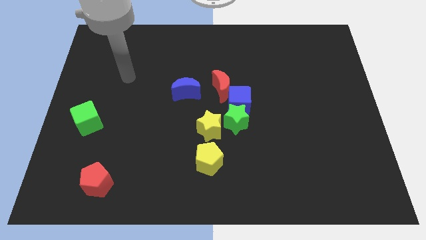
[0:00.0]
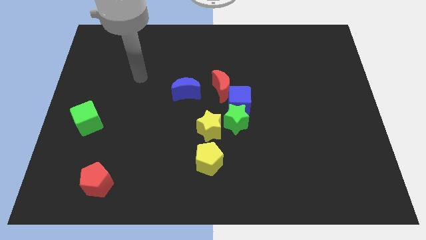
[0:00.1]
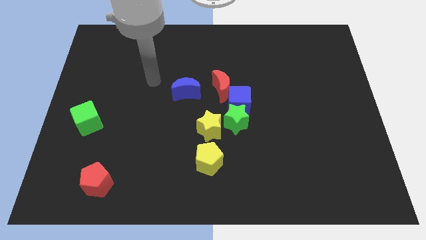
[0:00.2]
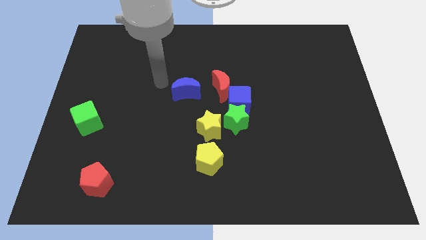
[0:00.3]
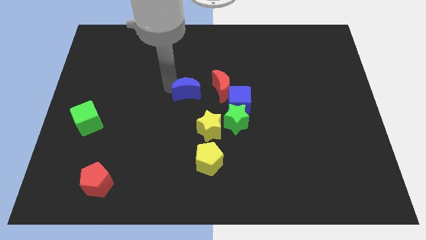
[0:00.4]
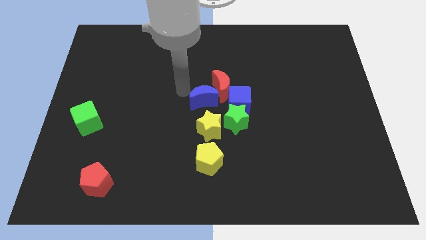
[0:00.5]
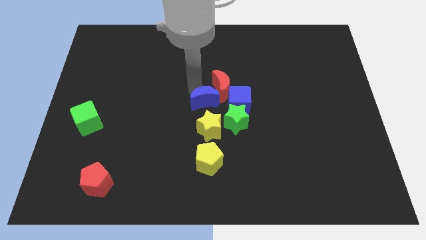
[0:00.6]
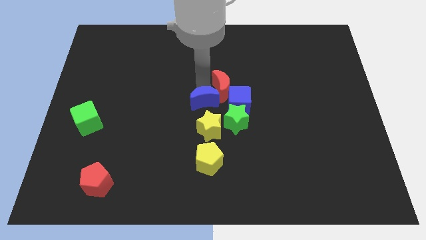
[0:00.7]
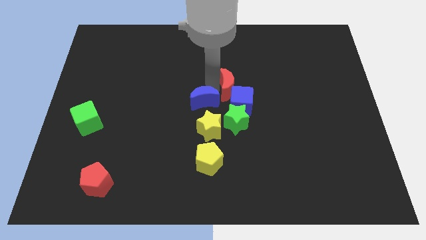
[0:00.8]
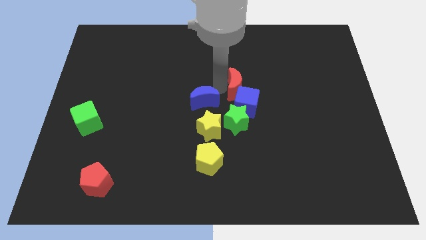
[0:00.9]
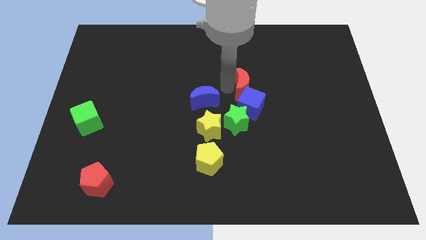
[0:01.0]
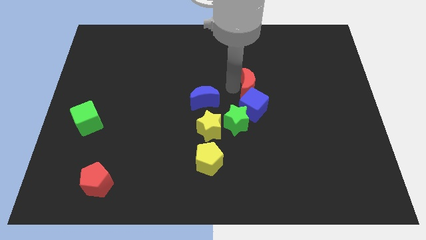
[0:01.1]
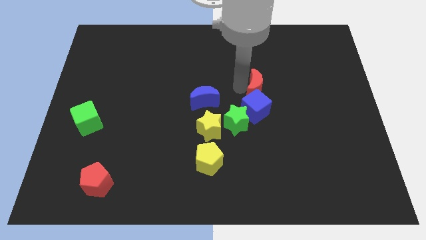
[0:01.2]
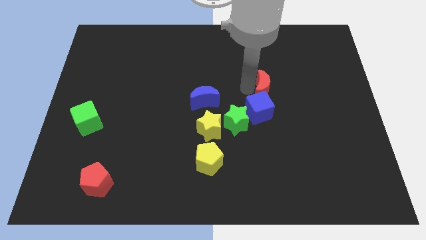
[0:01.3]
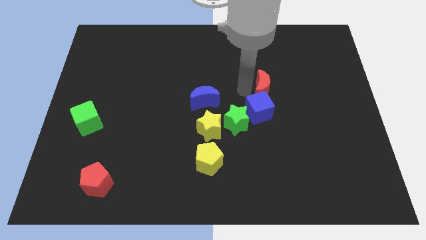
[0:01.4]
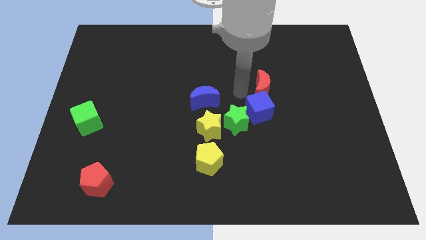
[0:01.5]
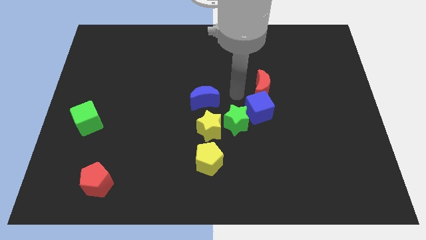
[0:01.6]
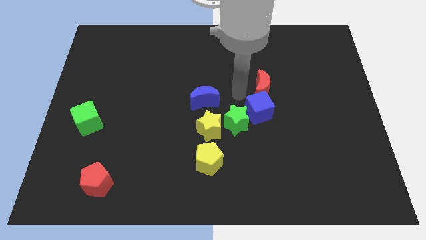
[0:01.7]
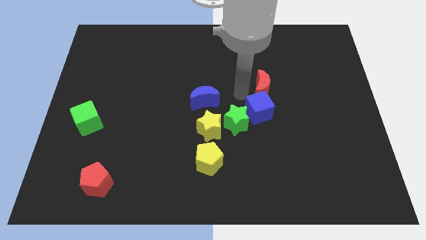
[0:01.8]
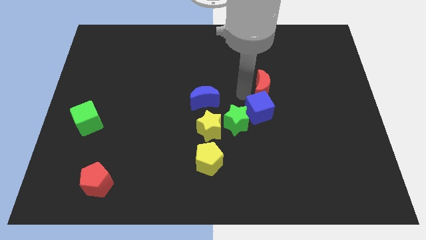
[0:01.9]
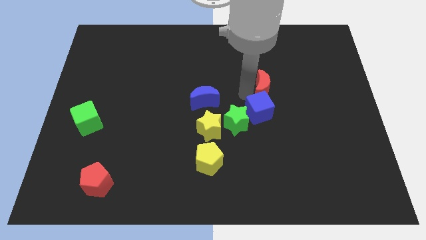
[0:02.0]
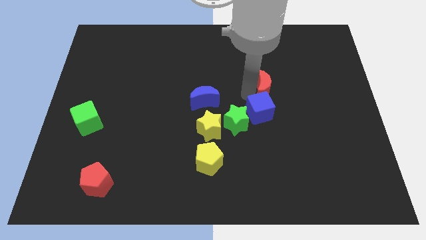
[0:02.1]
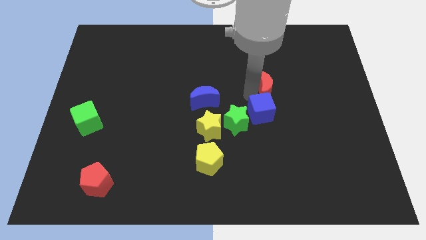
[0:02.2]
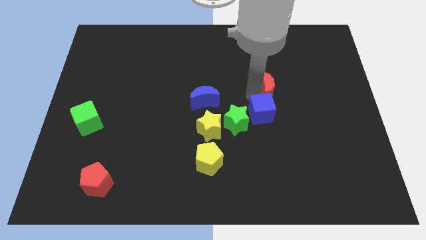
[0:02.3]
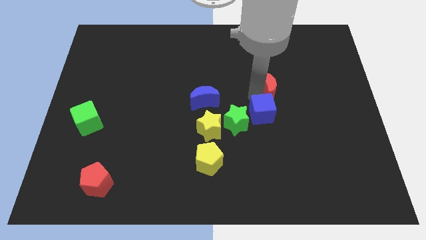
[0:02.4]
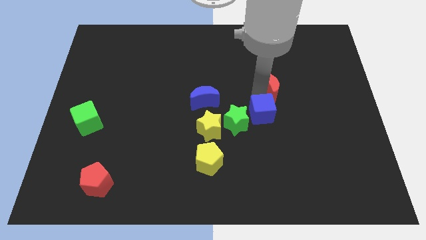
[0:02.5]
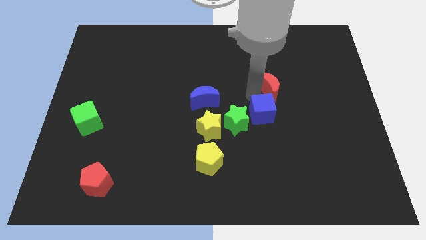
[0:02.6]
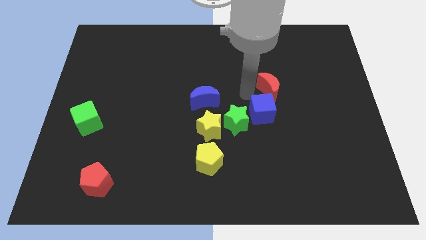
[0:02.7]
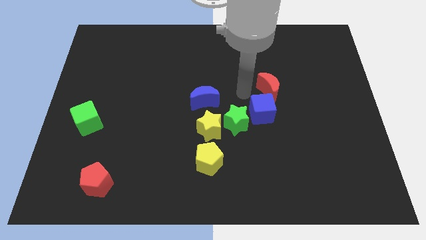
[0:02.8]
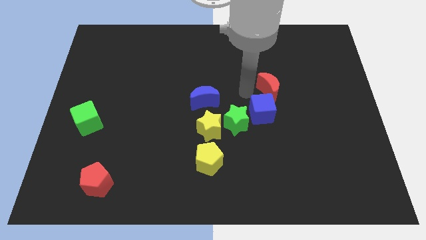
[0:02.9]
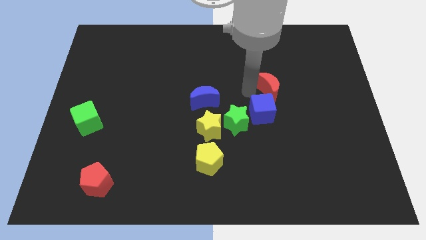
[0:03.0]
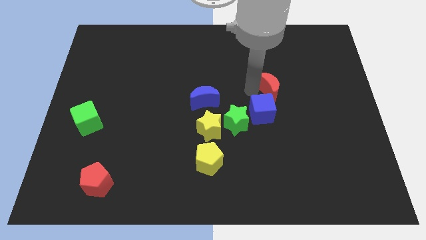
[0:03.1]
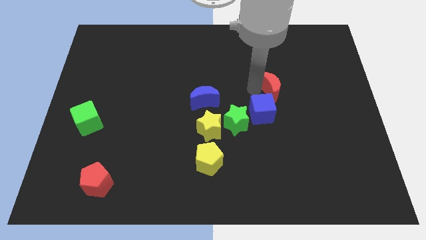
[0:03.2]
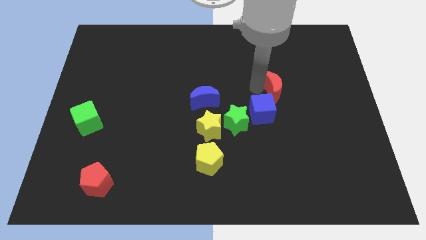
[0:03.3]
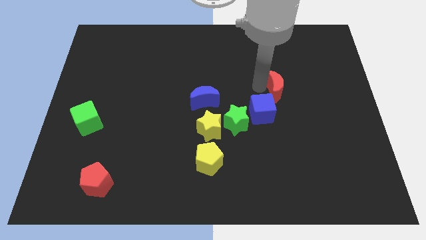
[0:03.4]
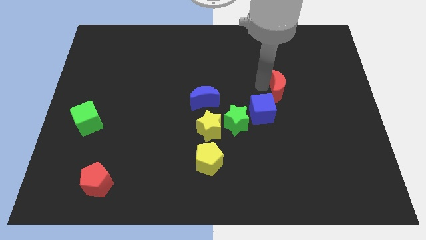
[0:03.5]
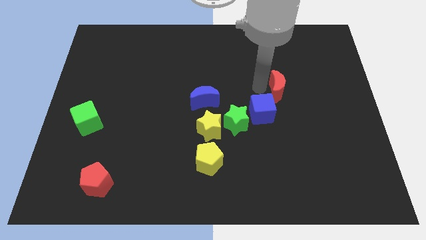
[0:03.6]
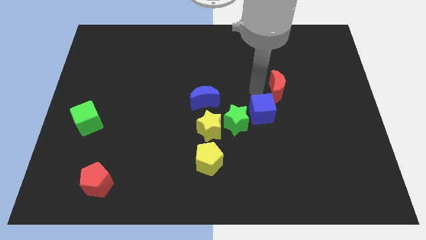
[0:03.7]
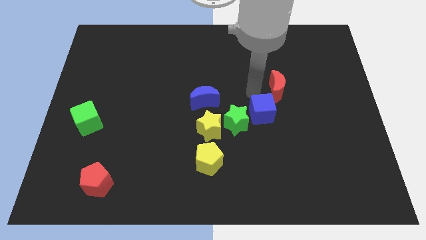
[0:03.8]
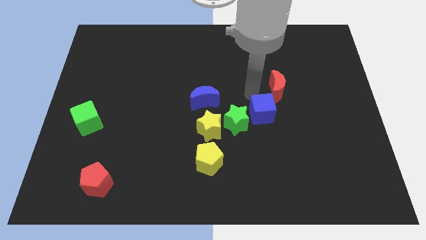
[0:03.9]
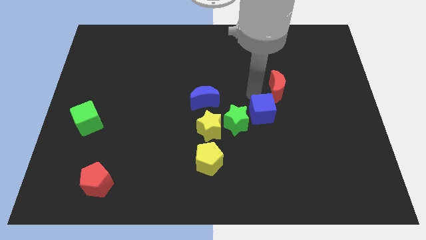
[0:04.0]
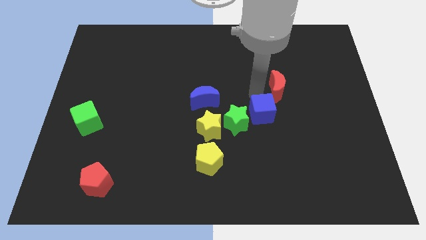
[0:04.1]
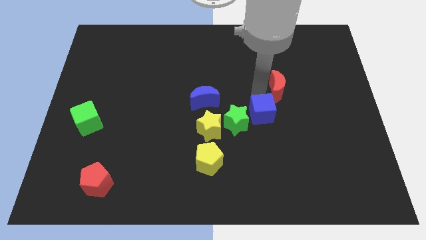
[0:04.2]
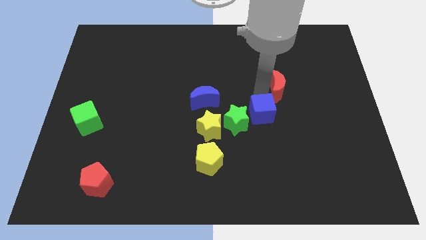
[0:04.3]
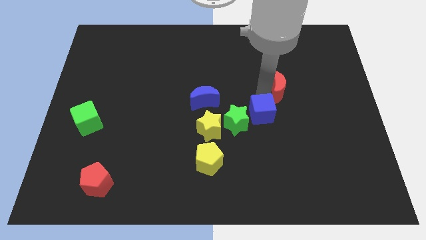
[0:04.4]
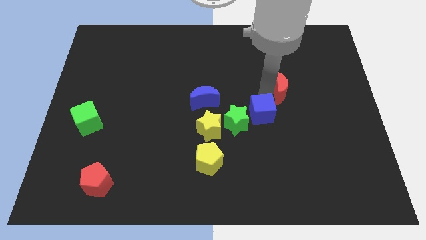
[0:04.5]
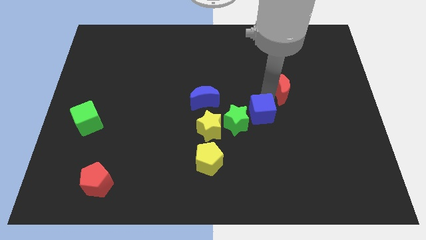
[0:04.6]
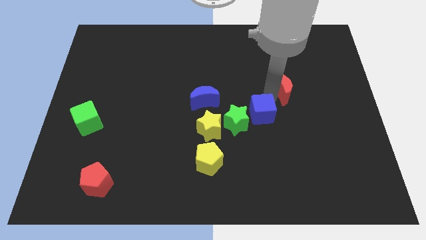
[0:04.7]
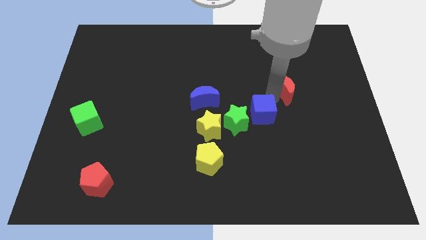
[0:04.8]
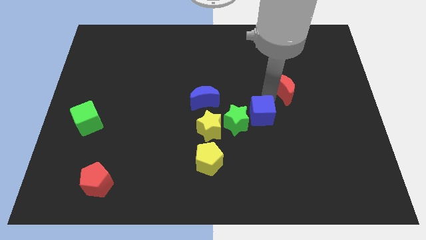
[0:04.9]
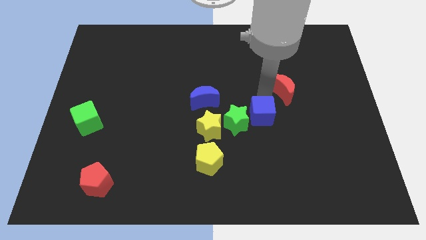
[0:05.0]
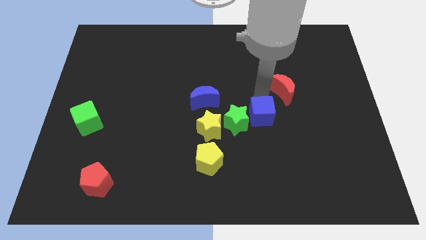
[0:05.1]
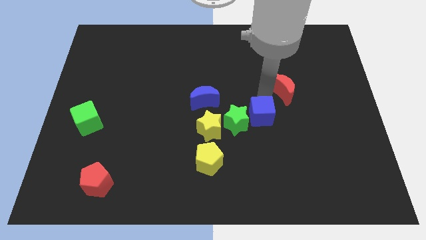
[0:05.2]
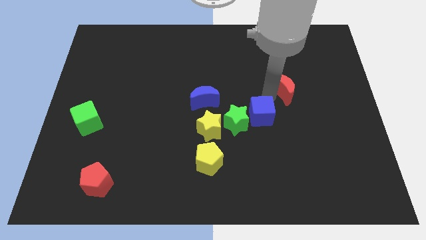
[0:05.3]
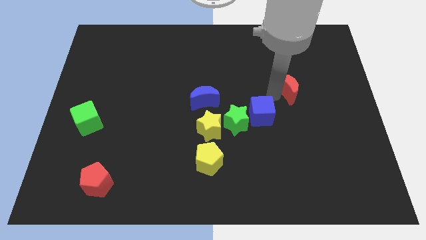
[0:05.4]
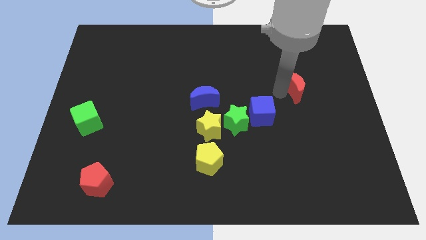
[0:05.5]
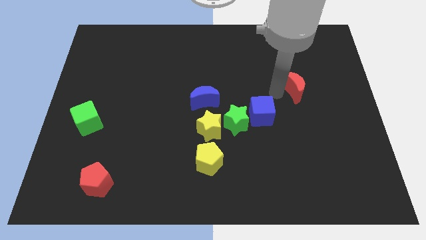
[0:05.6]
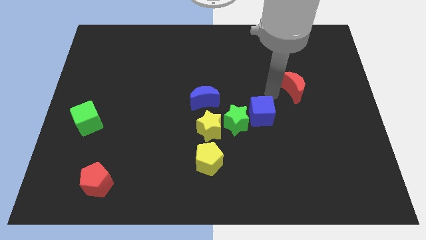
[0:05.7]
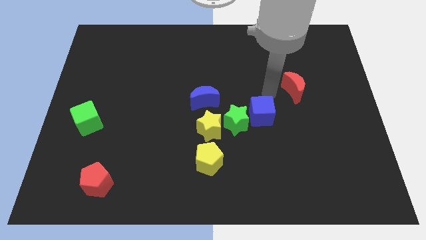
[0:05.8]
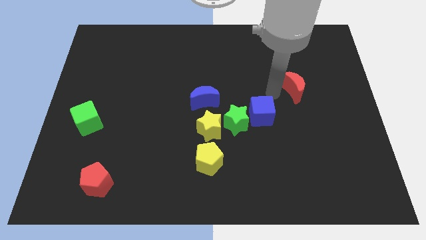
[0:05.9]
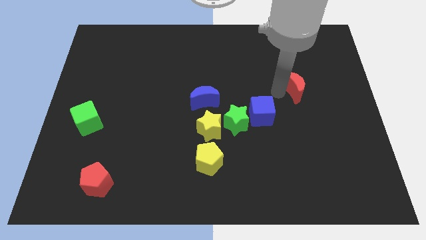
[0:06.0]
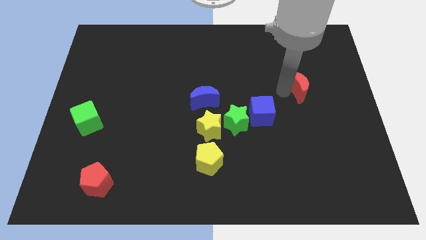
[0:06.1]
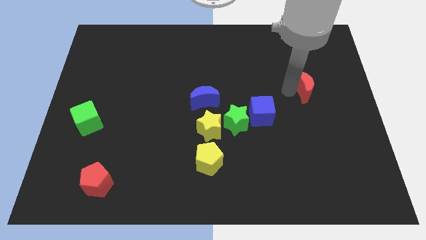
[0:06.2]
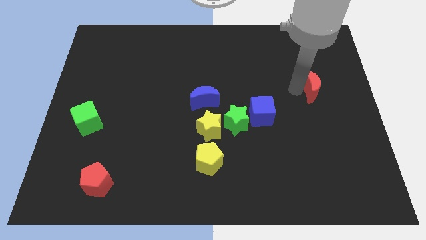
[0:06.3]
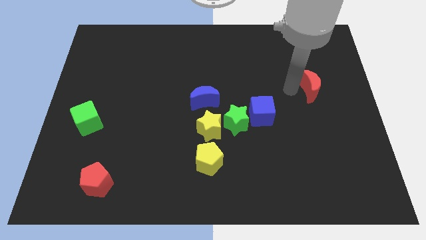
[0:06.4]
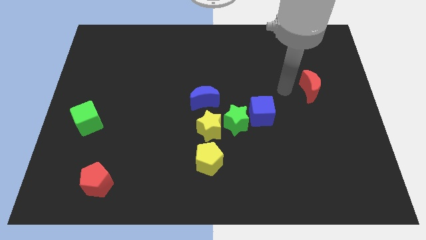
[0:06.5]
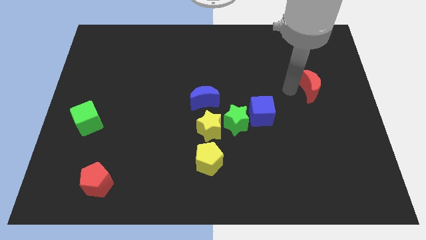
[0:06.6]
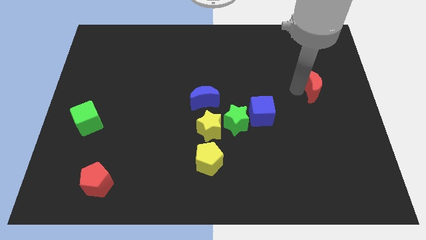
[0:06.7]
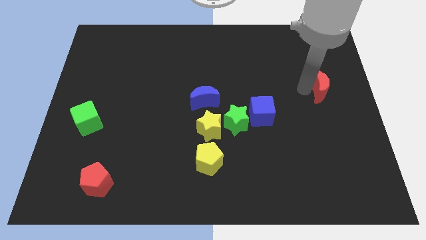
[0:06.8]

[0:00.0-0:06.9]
push the red moon to the right side of the board
